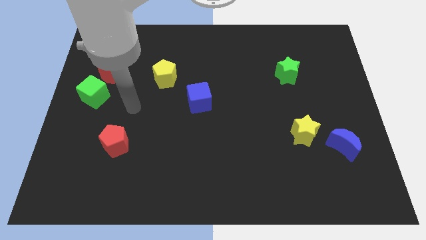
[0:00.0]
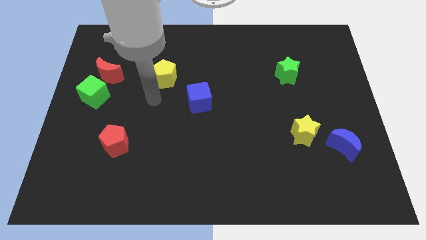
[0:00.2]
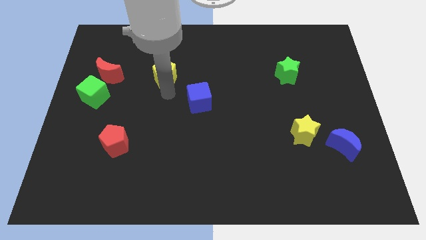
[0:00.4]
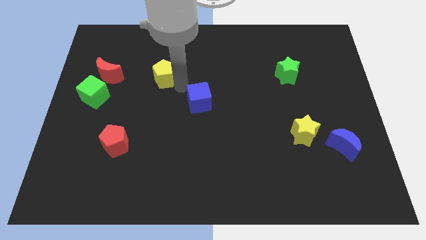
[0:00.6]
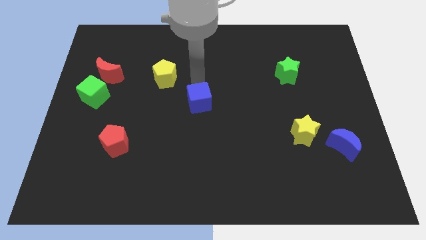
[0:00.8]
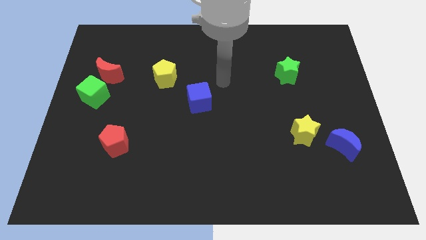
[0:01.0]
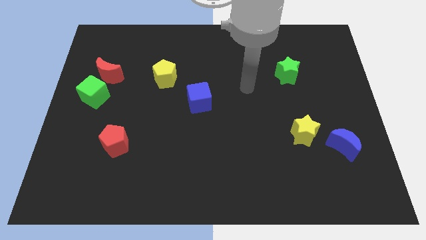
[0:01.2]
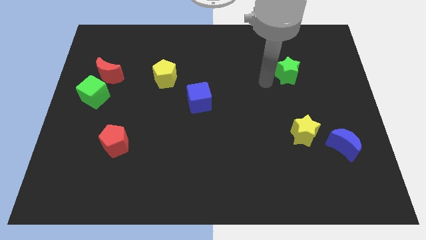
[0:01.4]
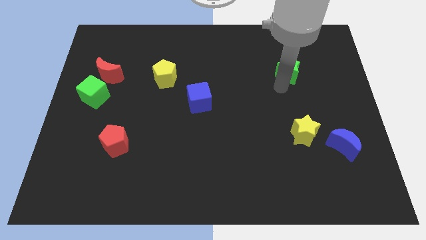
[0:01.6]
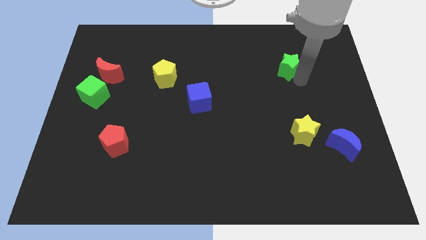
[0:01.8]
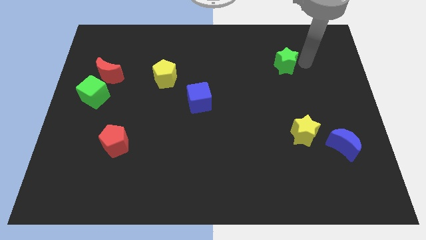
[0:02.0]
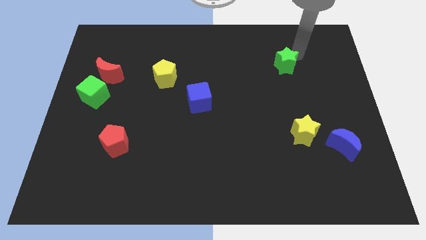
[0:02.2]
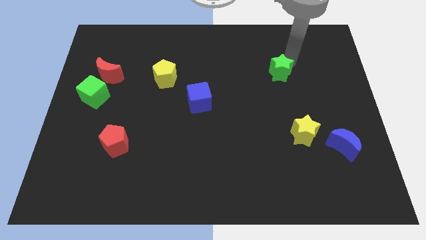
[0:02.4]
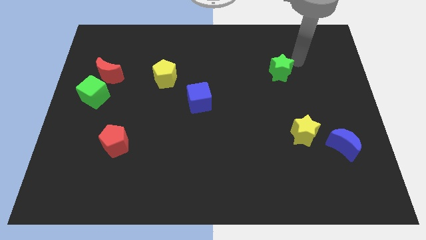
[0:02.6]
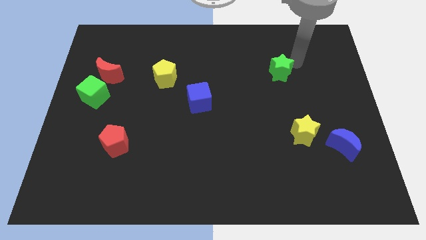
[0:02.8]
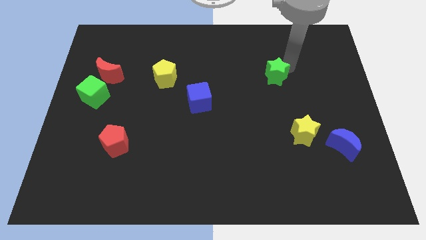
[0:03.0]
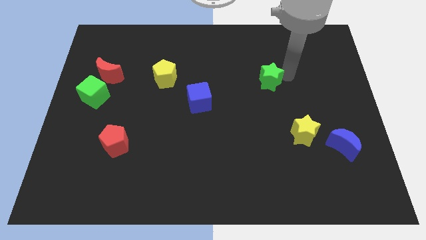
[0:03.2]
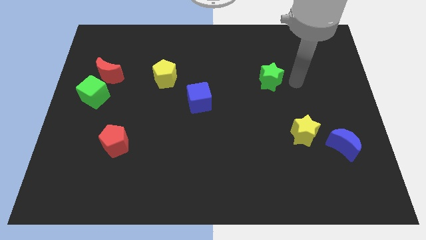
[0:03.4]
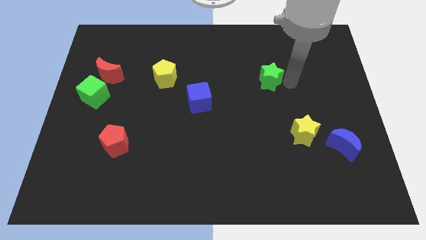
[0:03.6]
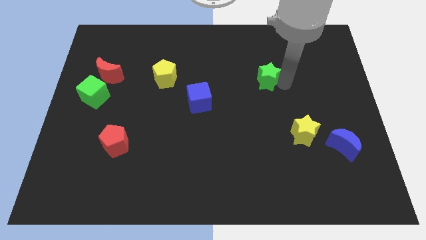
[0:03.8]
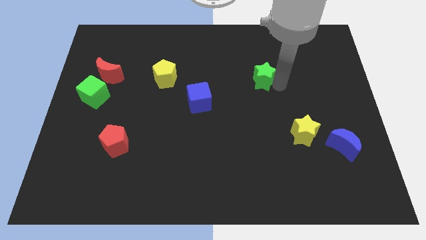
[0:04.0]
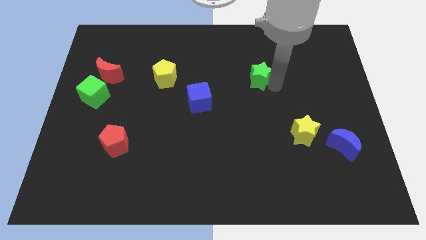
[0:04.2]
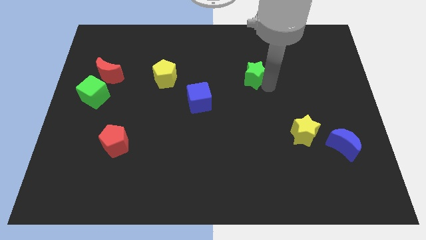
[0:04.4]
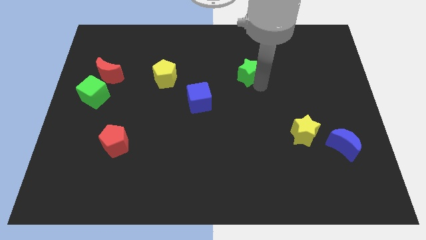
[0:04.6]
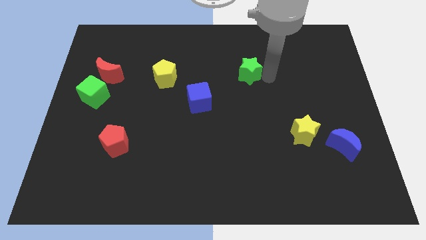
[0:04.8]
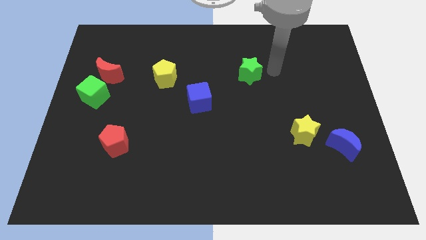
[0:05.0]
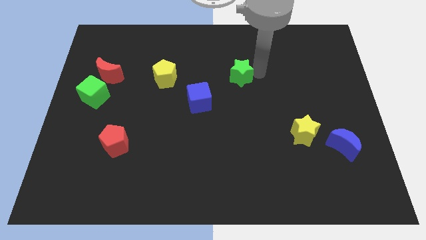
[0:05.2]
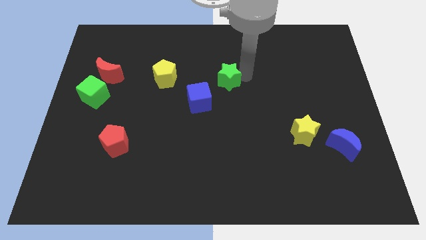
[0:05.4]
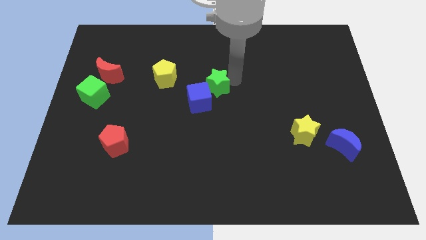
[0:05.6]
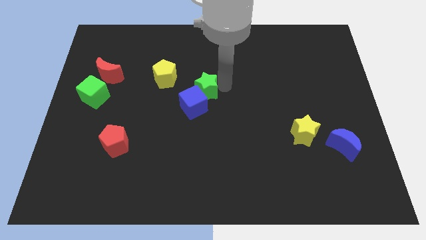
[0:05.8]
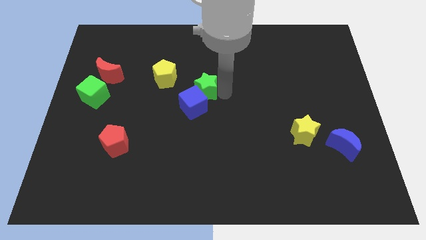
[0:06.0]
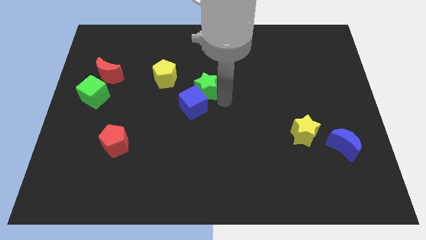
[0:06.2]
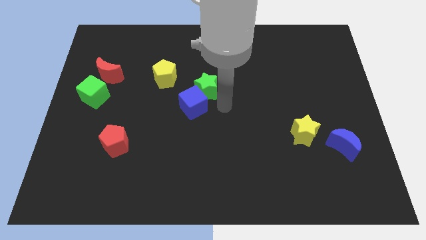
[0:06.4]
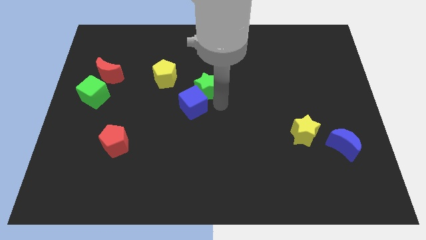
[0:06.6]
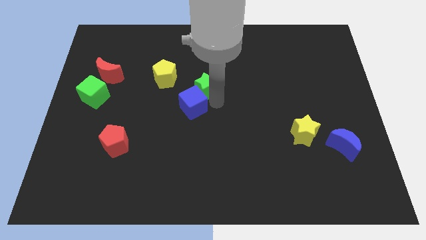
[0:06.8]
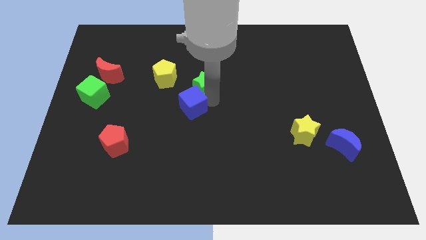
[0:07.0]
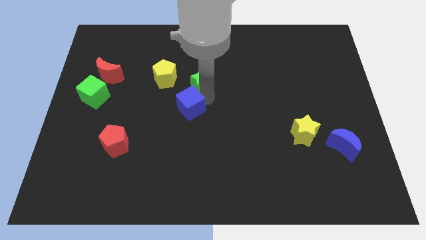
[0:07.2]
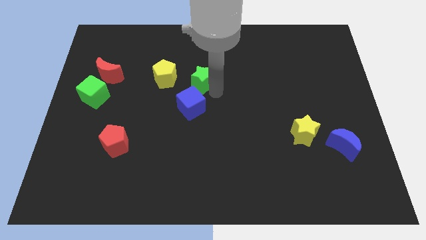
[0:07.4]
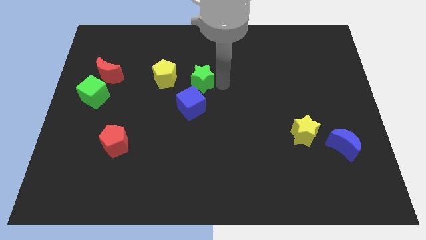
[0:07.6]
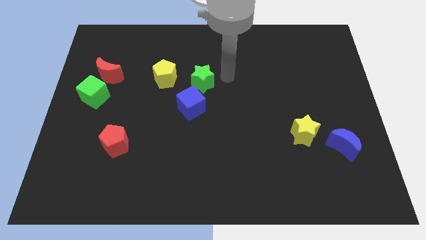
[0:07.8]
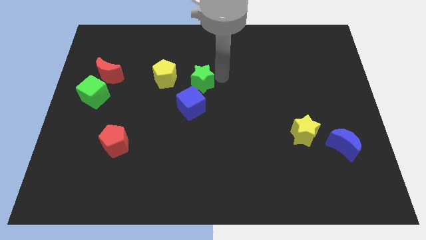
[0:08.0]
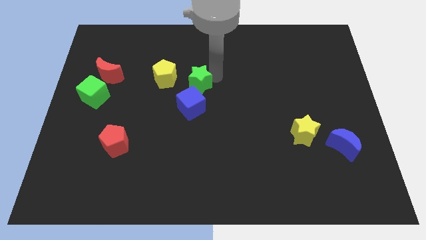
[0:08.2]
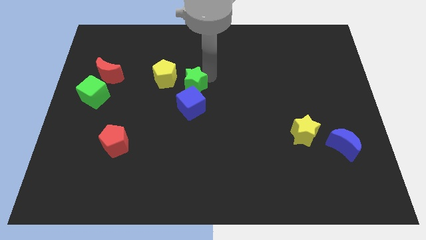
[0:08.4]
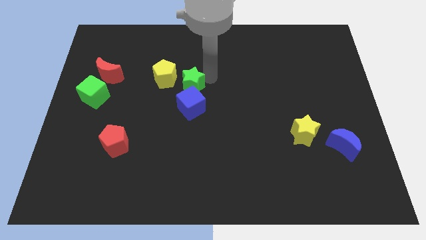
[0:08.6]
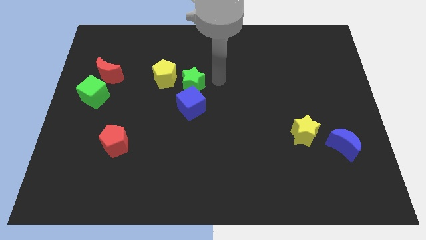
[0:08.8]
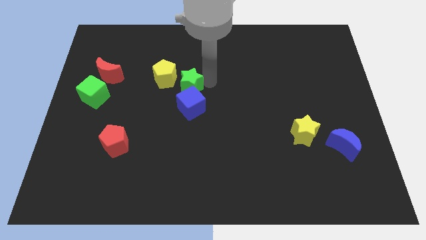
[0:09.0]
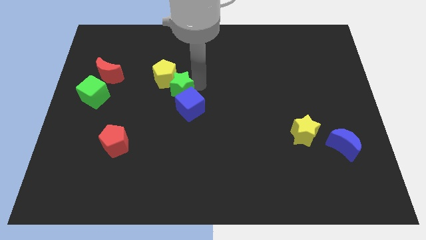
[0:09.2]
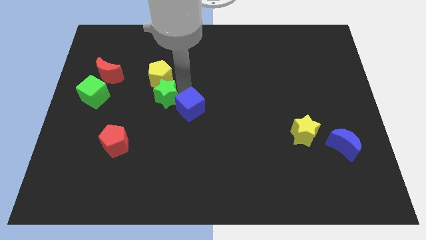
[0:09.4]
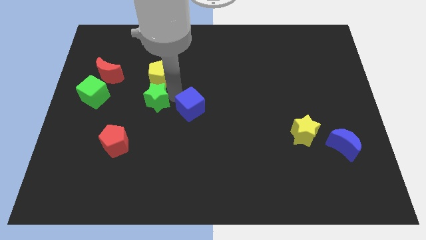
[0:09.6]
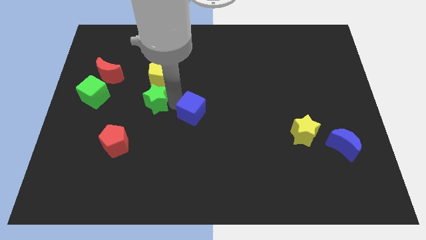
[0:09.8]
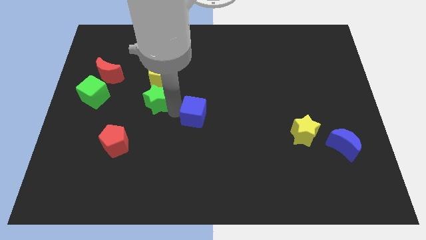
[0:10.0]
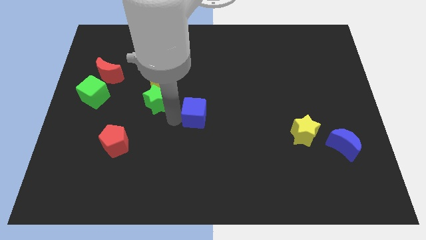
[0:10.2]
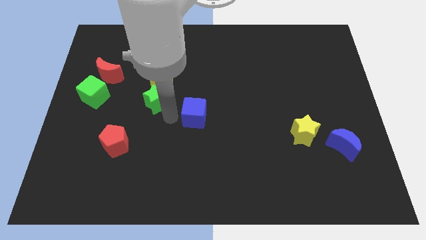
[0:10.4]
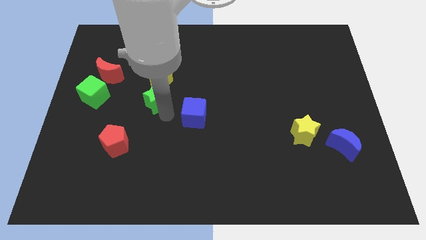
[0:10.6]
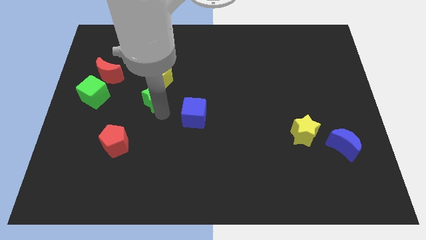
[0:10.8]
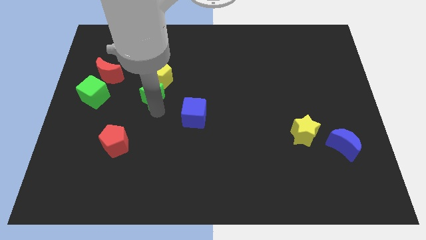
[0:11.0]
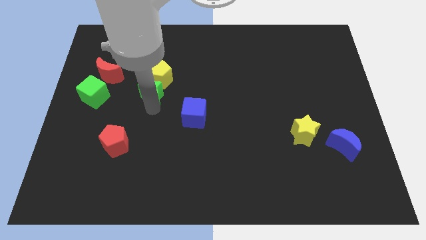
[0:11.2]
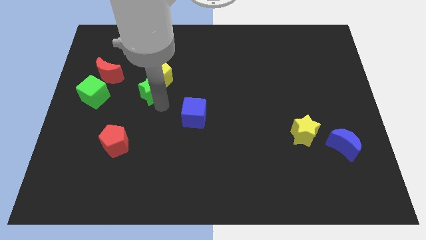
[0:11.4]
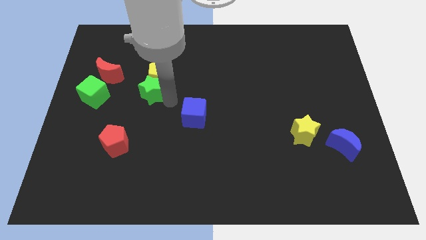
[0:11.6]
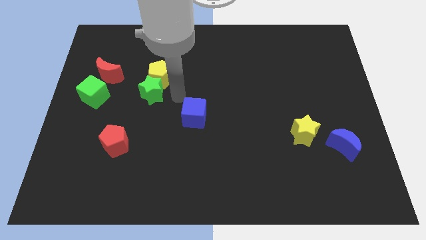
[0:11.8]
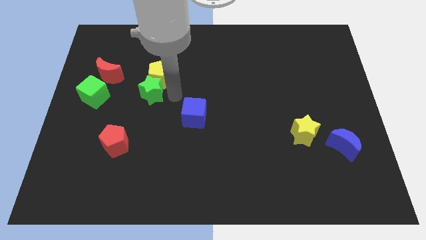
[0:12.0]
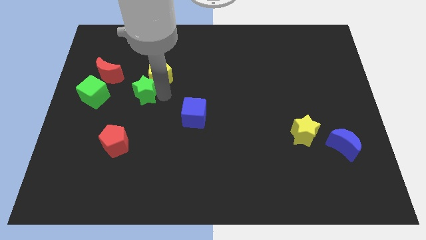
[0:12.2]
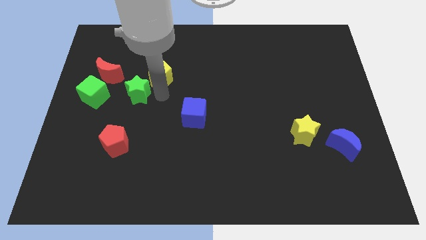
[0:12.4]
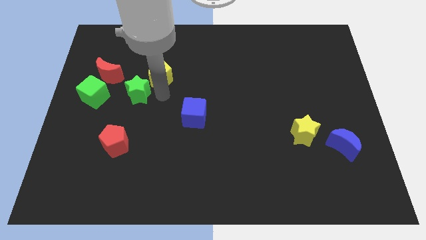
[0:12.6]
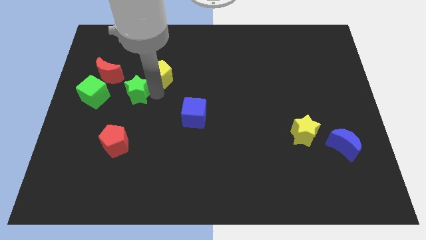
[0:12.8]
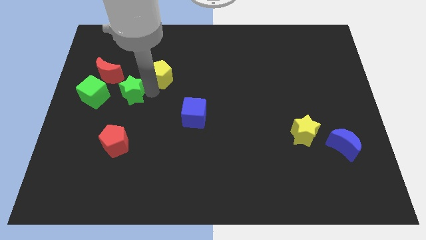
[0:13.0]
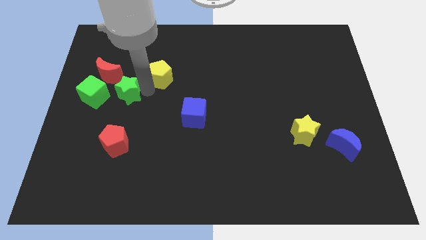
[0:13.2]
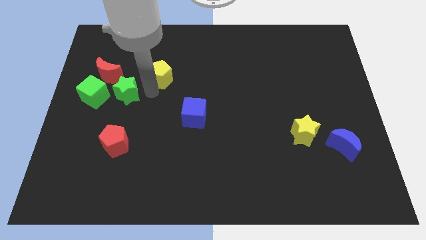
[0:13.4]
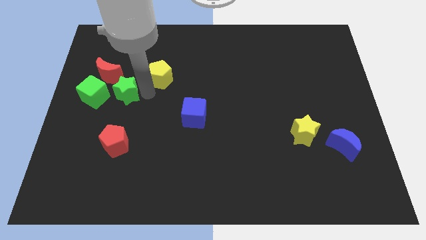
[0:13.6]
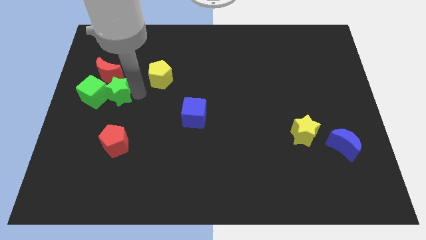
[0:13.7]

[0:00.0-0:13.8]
move the green star next to the green cube
